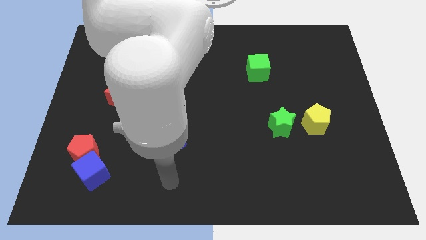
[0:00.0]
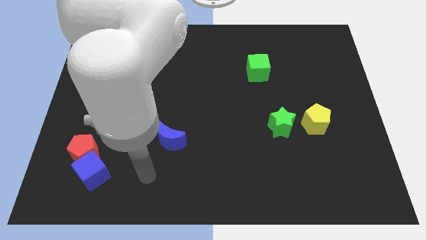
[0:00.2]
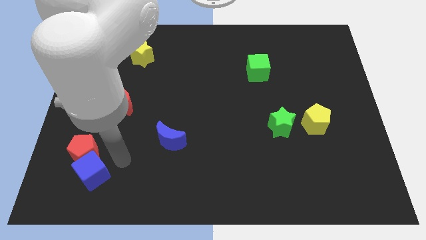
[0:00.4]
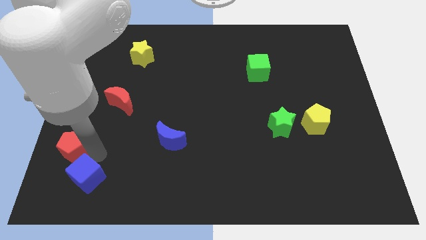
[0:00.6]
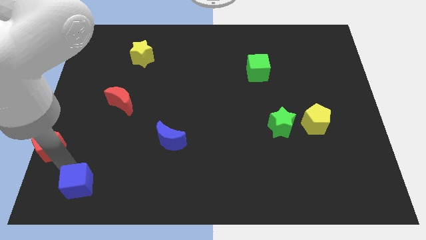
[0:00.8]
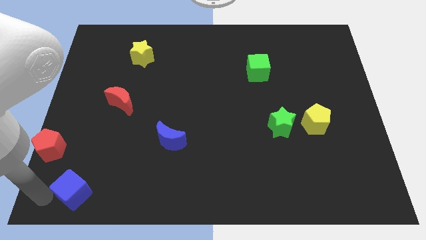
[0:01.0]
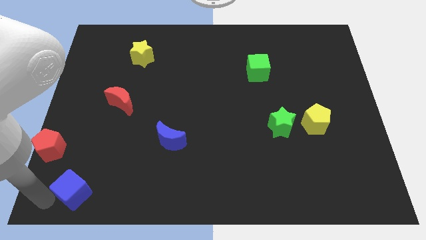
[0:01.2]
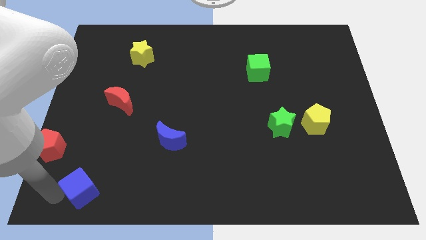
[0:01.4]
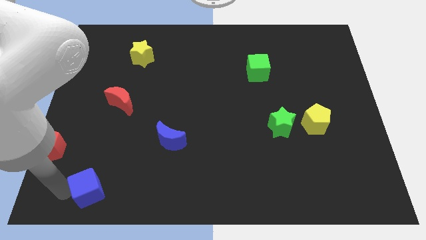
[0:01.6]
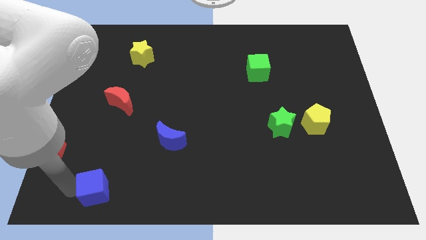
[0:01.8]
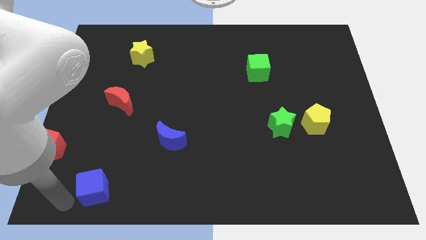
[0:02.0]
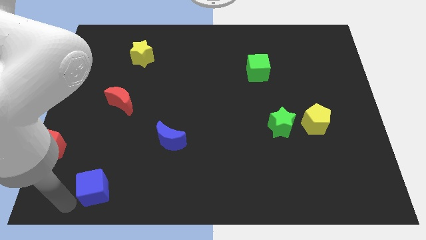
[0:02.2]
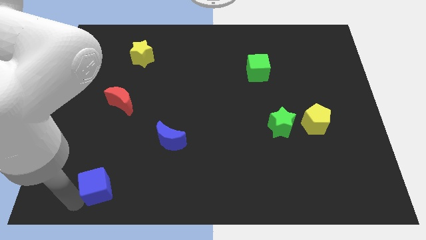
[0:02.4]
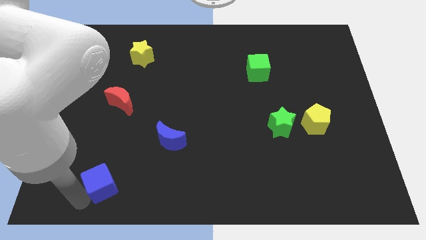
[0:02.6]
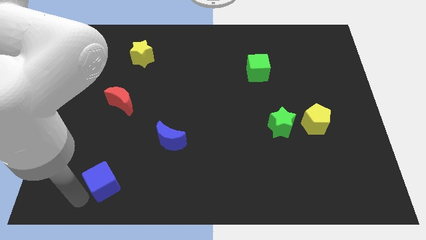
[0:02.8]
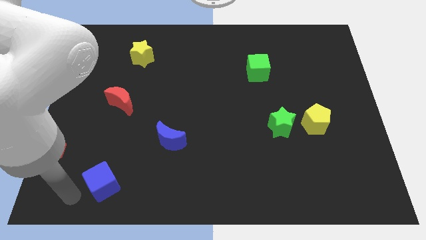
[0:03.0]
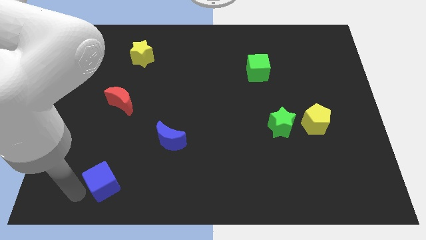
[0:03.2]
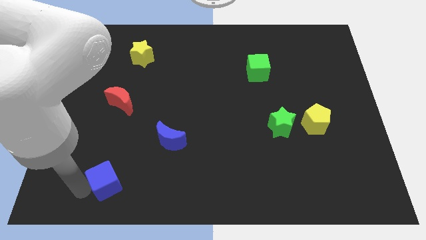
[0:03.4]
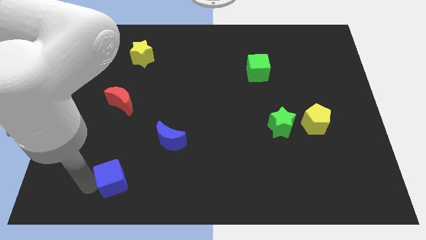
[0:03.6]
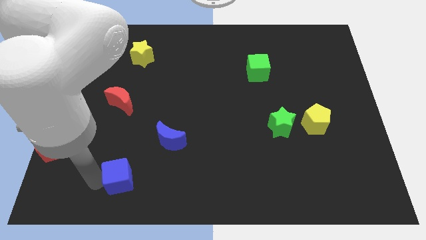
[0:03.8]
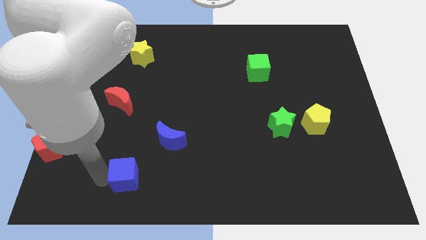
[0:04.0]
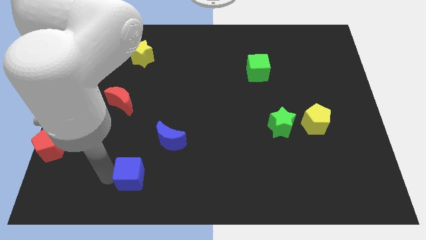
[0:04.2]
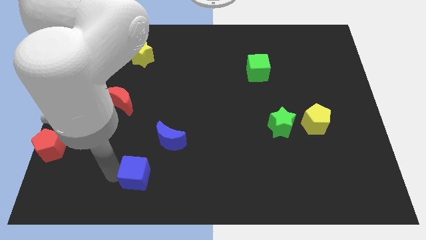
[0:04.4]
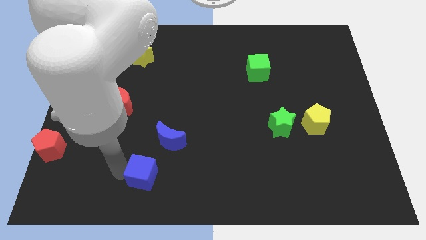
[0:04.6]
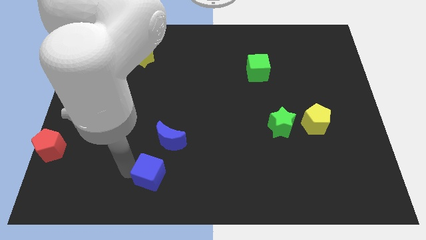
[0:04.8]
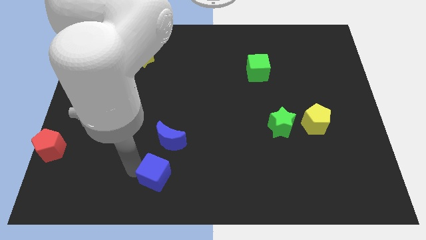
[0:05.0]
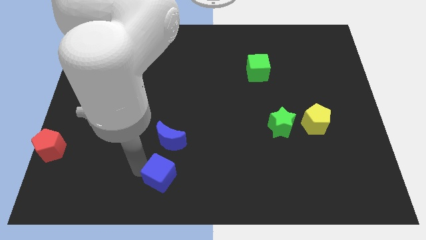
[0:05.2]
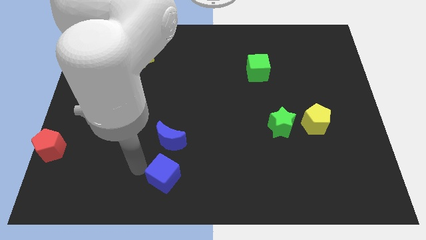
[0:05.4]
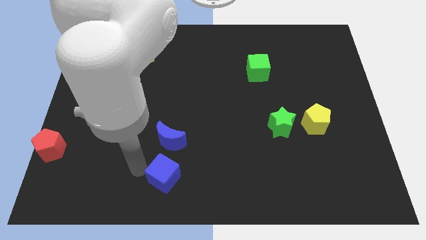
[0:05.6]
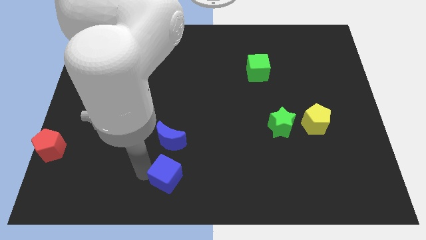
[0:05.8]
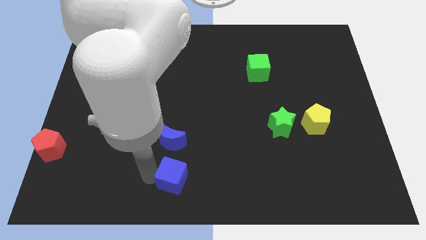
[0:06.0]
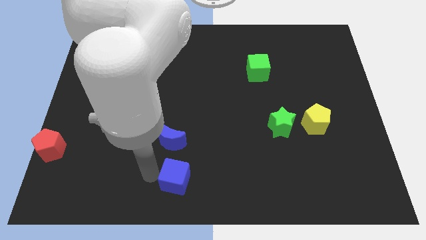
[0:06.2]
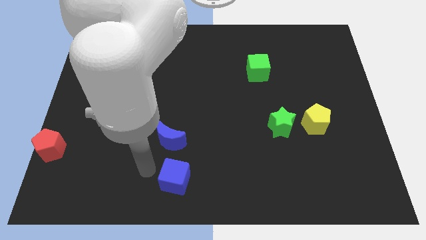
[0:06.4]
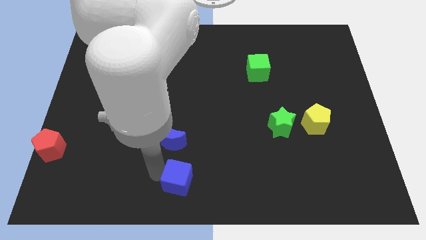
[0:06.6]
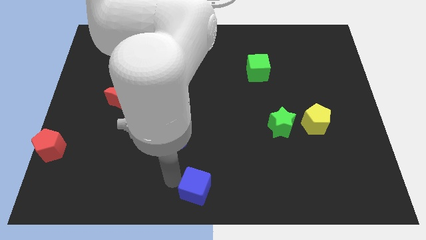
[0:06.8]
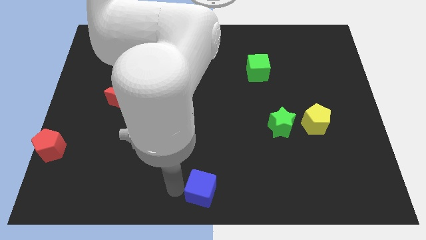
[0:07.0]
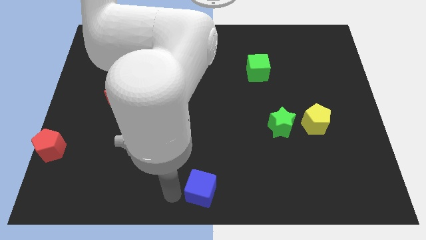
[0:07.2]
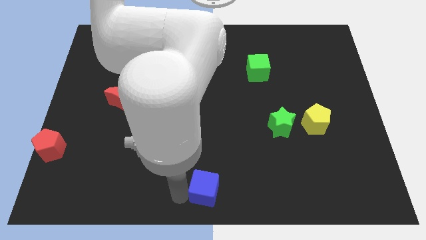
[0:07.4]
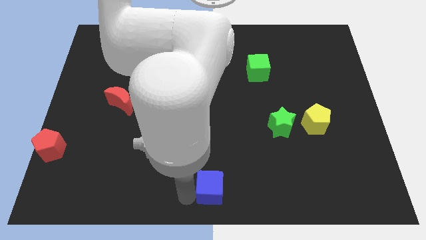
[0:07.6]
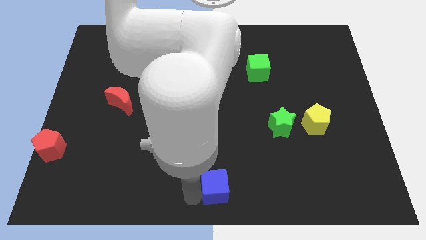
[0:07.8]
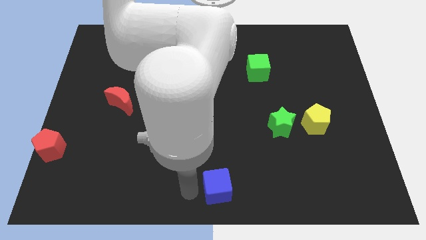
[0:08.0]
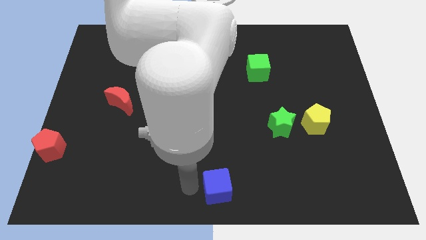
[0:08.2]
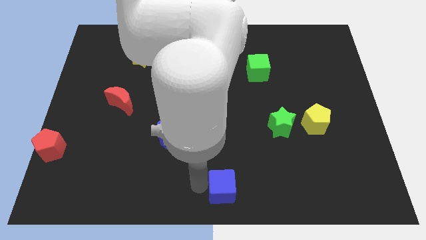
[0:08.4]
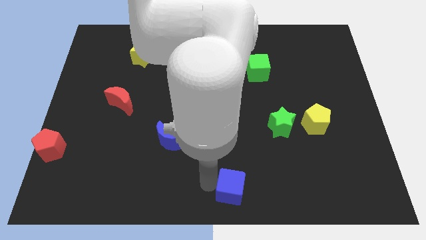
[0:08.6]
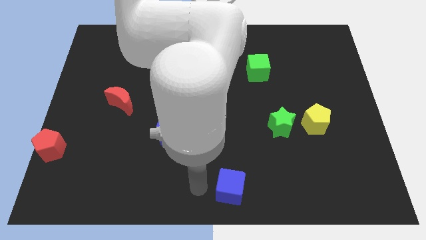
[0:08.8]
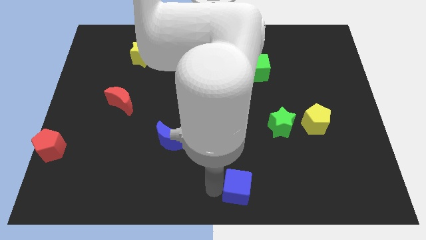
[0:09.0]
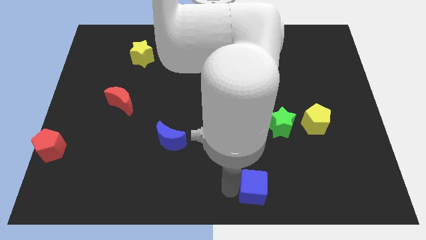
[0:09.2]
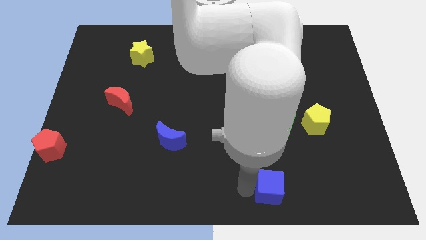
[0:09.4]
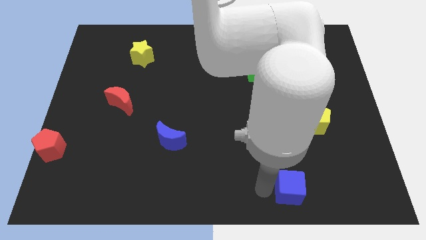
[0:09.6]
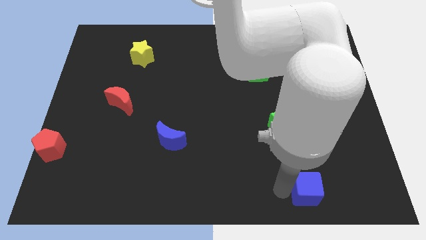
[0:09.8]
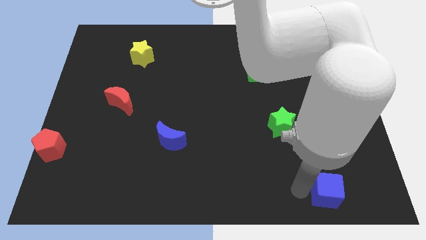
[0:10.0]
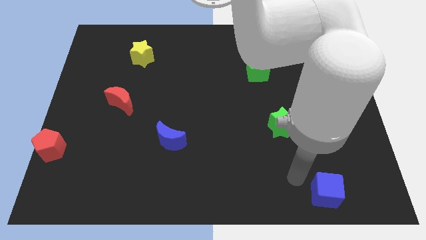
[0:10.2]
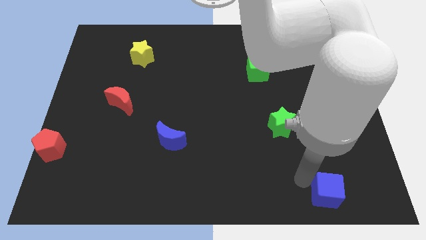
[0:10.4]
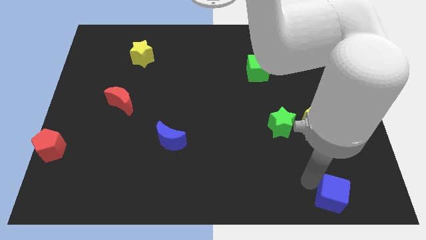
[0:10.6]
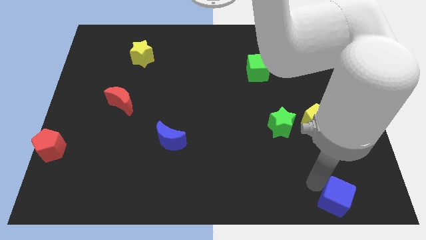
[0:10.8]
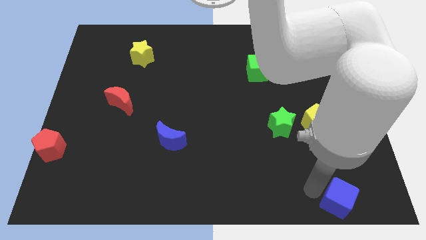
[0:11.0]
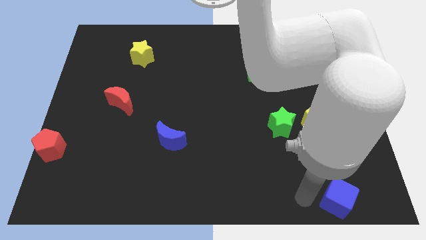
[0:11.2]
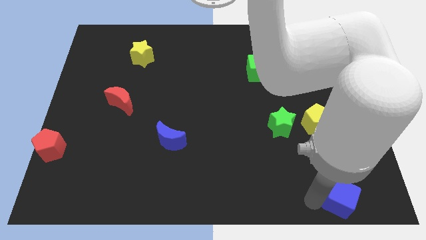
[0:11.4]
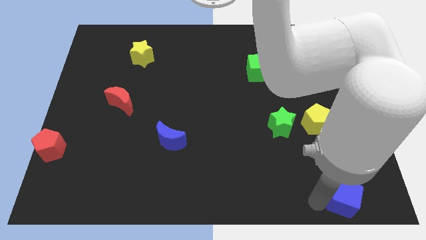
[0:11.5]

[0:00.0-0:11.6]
move the blue cube to the bottom right corner

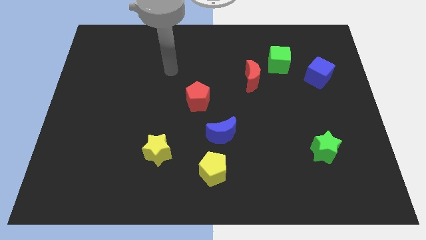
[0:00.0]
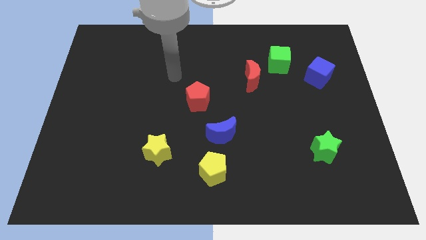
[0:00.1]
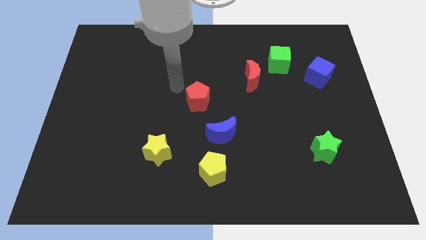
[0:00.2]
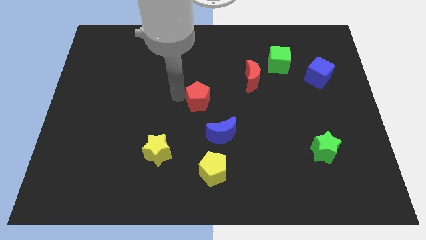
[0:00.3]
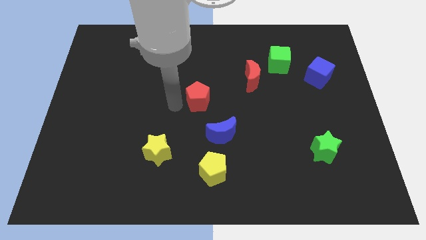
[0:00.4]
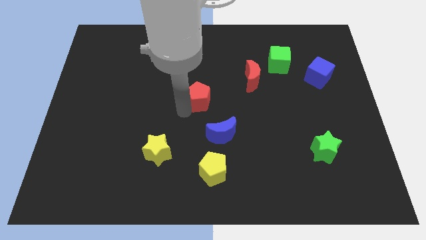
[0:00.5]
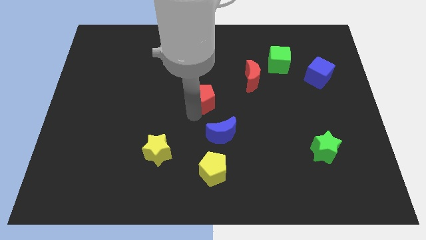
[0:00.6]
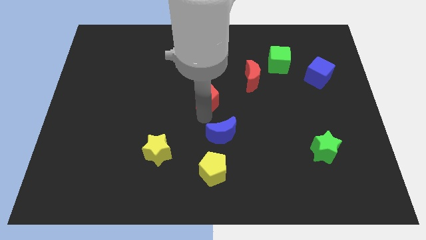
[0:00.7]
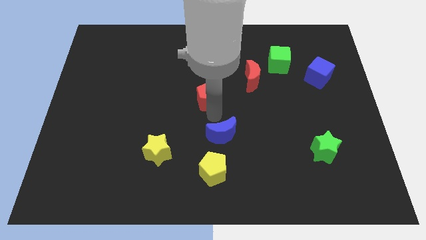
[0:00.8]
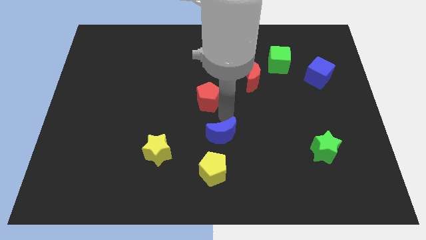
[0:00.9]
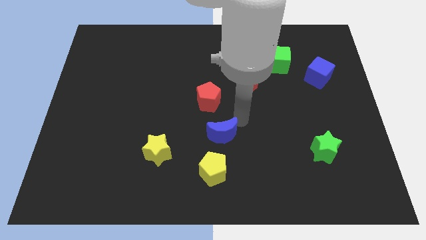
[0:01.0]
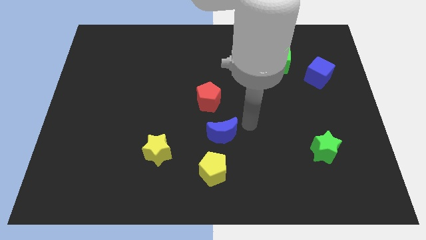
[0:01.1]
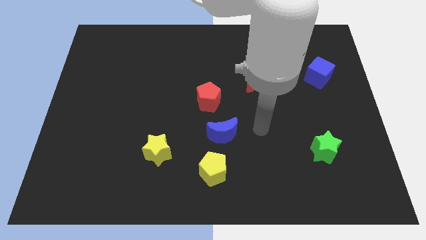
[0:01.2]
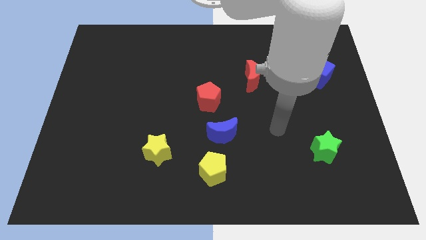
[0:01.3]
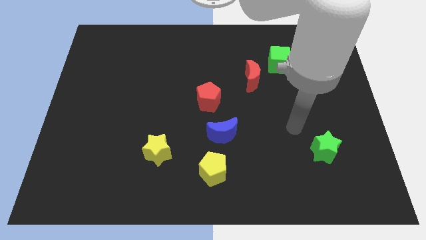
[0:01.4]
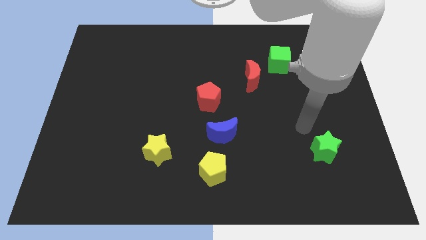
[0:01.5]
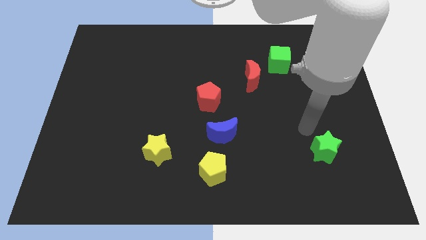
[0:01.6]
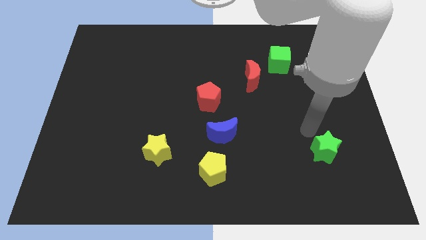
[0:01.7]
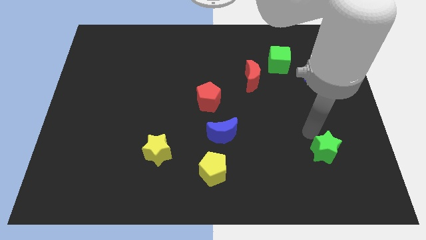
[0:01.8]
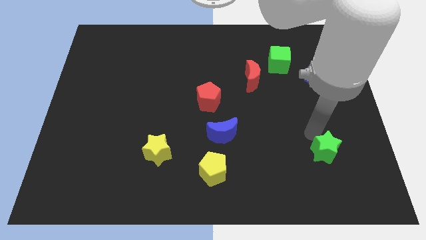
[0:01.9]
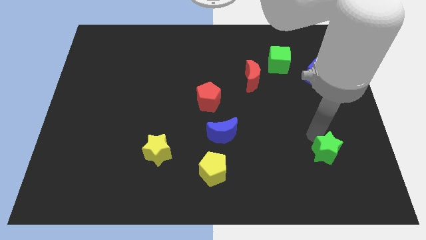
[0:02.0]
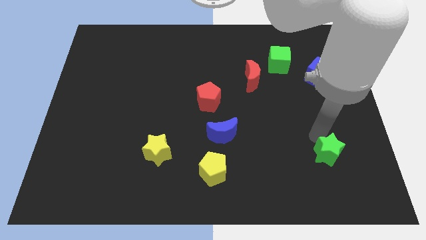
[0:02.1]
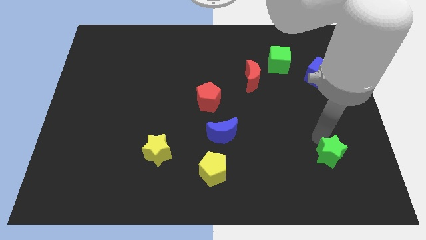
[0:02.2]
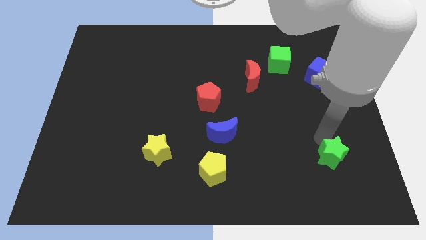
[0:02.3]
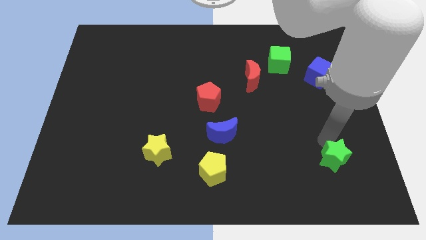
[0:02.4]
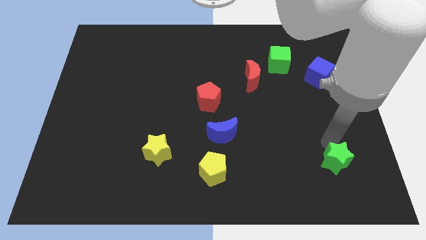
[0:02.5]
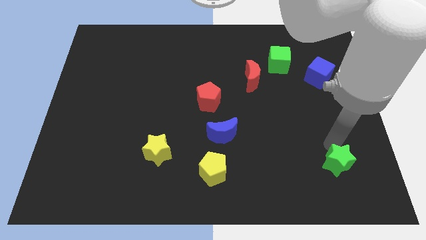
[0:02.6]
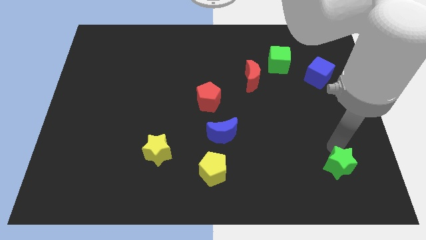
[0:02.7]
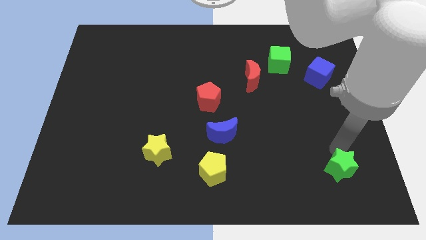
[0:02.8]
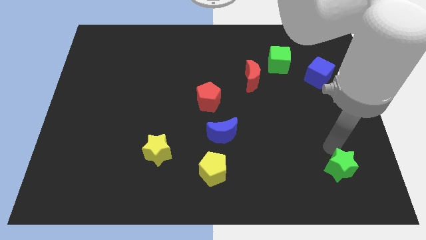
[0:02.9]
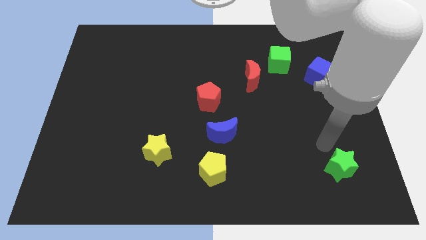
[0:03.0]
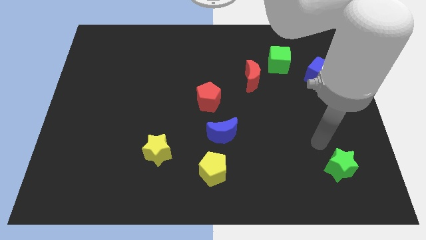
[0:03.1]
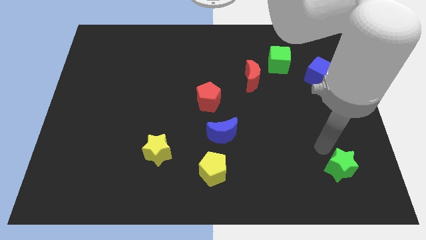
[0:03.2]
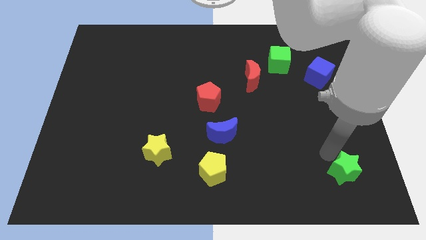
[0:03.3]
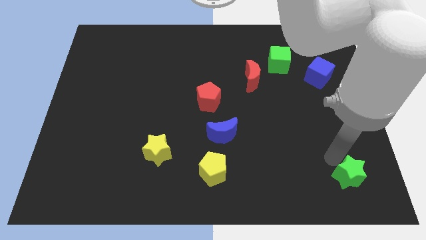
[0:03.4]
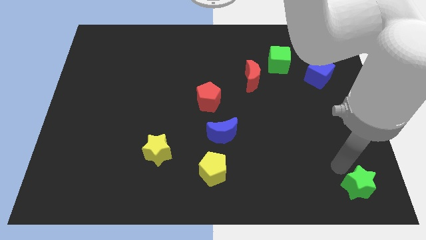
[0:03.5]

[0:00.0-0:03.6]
slide the green star to the lower right corner
